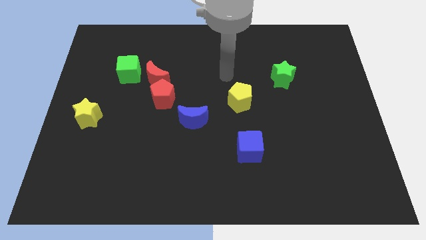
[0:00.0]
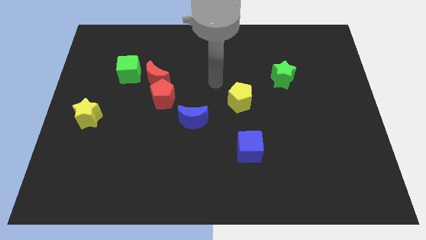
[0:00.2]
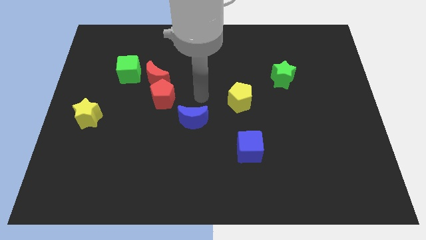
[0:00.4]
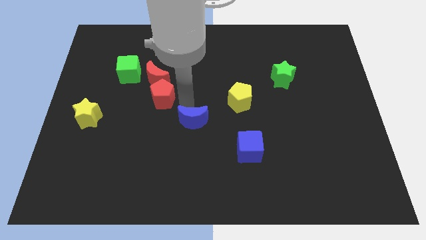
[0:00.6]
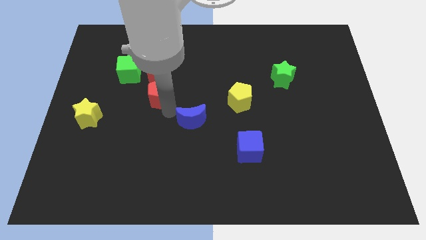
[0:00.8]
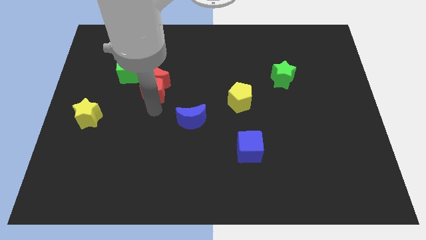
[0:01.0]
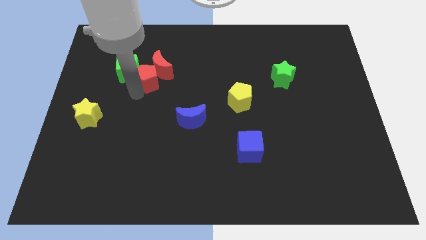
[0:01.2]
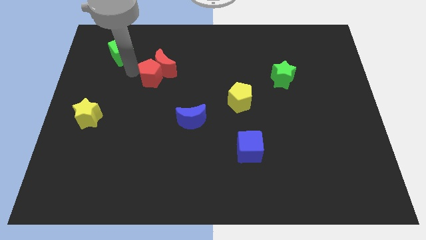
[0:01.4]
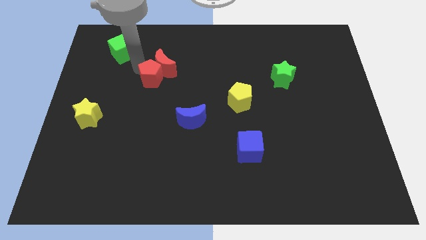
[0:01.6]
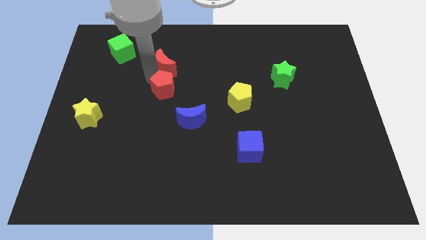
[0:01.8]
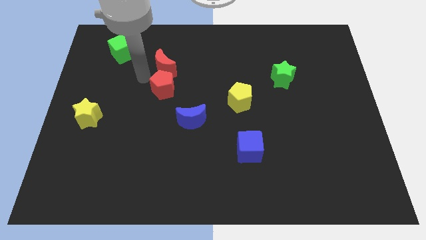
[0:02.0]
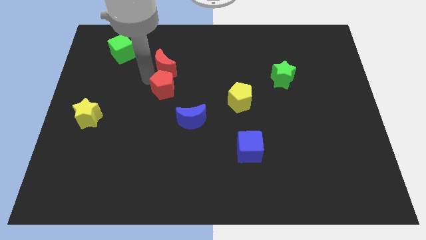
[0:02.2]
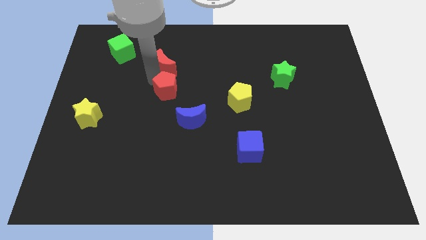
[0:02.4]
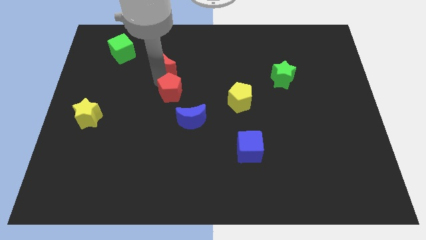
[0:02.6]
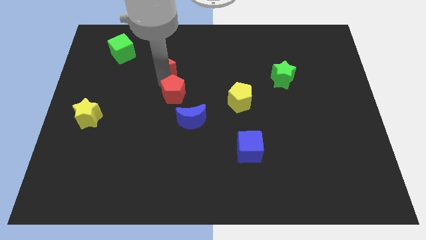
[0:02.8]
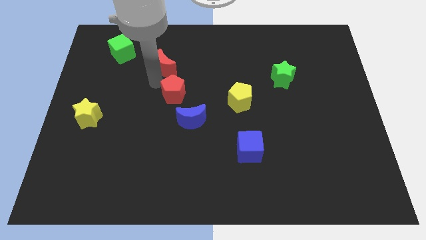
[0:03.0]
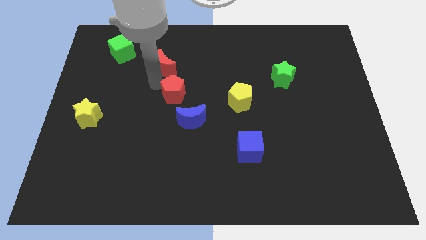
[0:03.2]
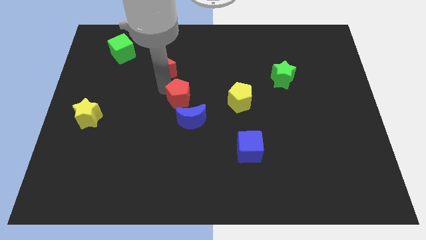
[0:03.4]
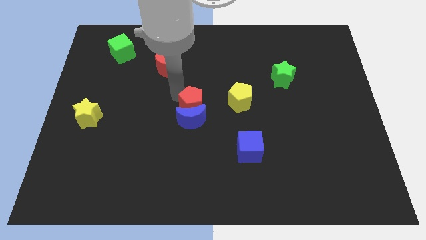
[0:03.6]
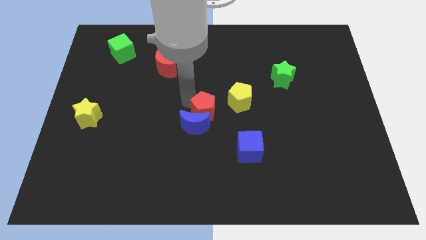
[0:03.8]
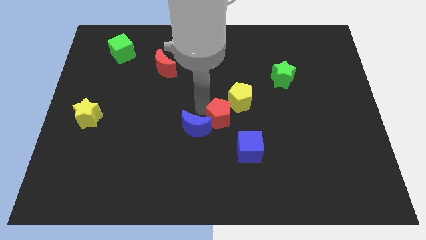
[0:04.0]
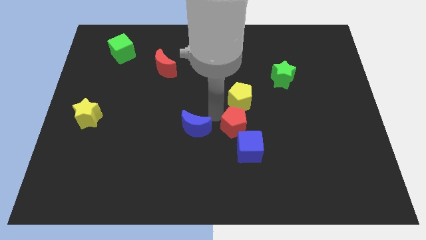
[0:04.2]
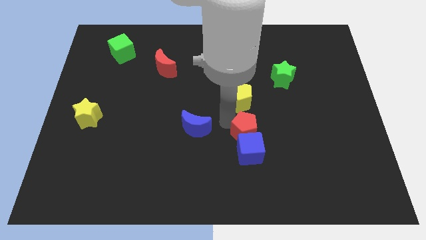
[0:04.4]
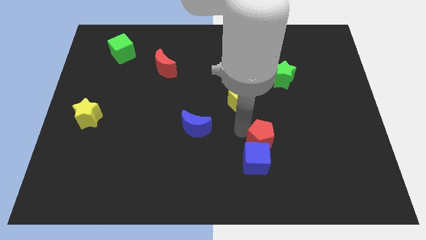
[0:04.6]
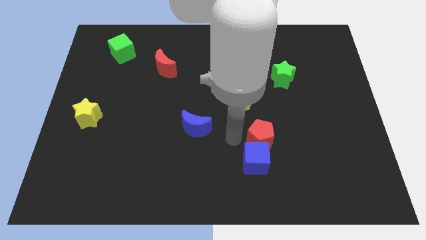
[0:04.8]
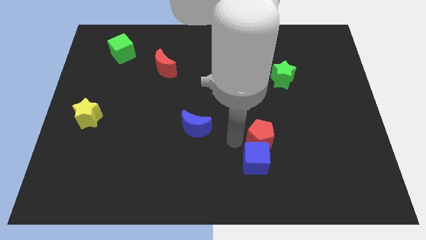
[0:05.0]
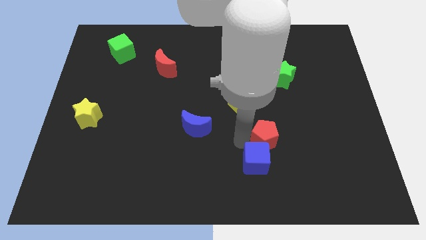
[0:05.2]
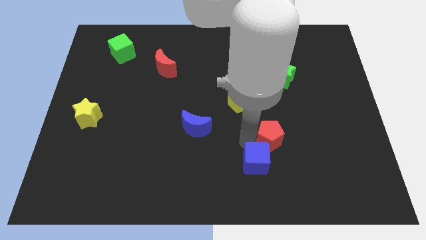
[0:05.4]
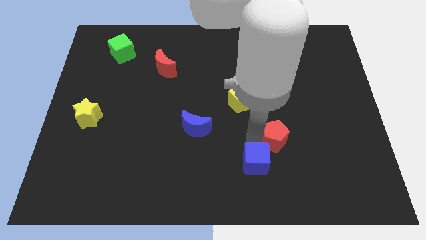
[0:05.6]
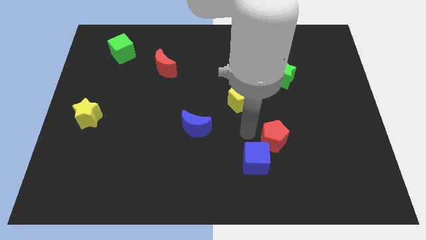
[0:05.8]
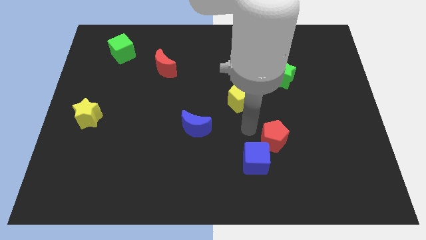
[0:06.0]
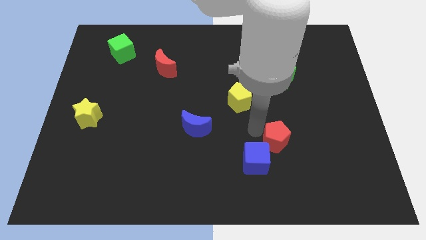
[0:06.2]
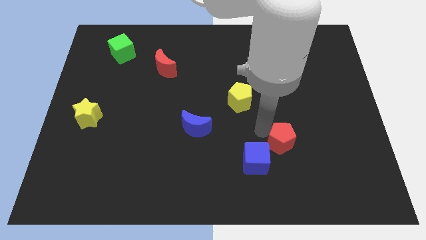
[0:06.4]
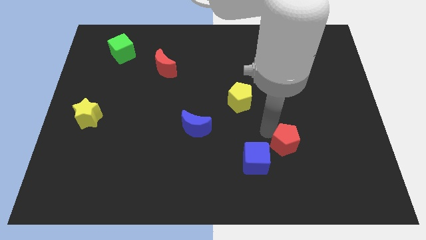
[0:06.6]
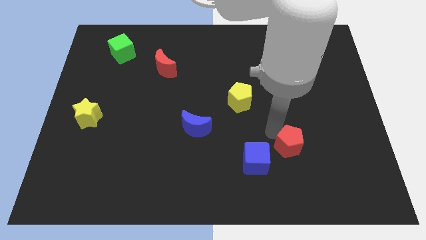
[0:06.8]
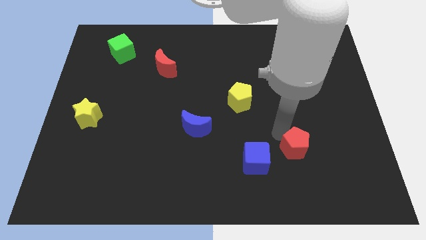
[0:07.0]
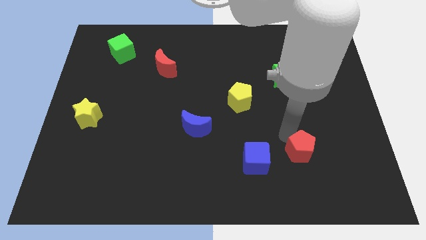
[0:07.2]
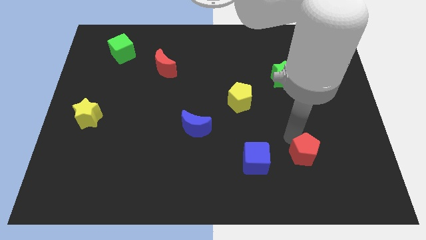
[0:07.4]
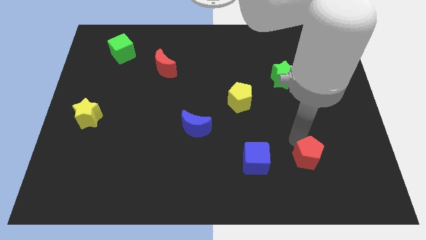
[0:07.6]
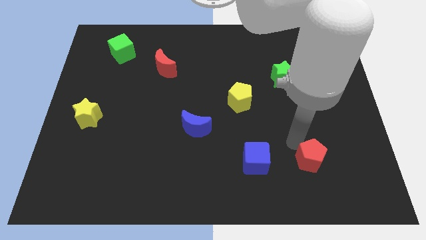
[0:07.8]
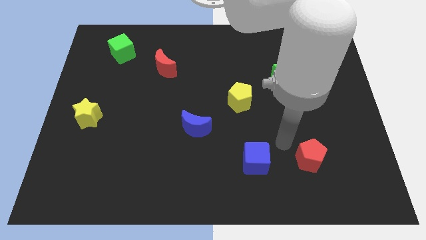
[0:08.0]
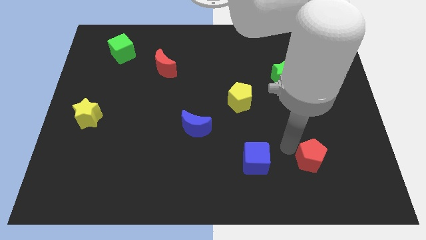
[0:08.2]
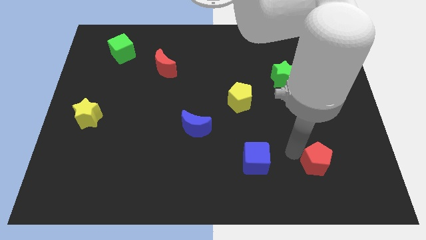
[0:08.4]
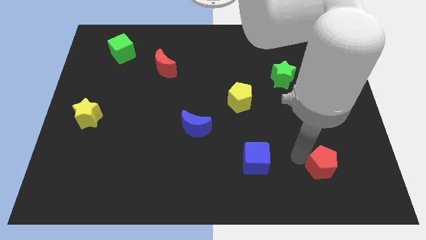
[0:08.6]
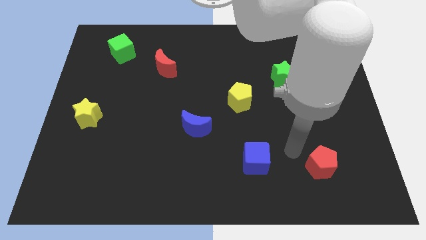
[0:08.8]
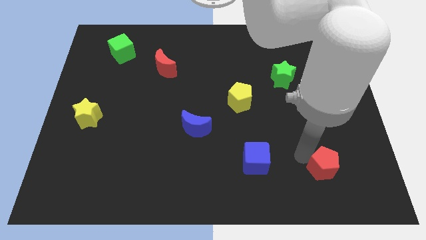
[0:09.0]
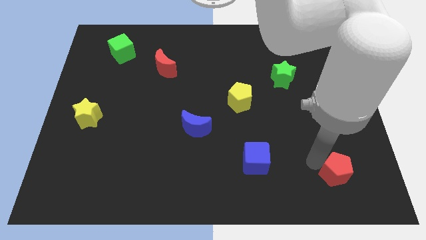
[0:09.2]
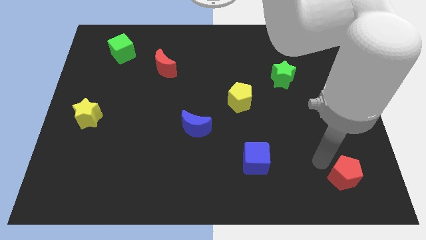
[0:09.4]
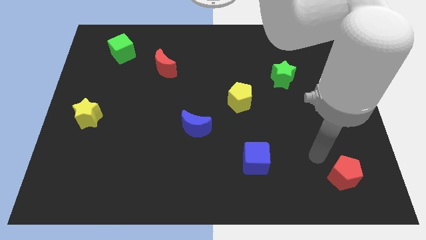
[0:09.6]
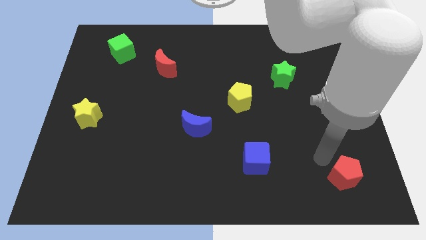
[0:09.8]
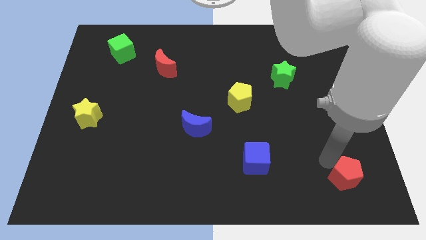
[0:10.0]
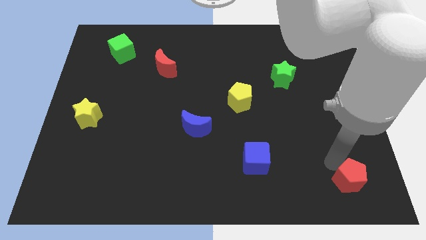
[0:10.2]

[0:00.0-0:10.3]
slide the red pentagon to the lower right corner

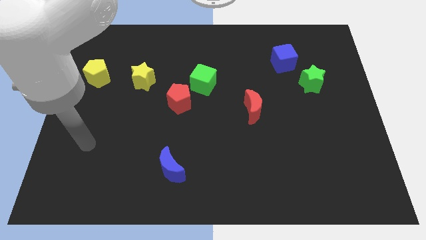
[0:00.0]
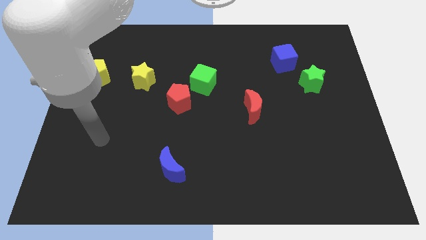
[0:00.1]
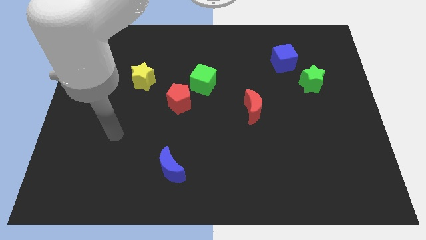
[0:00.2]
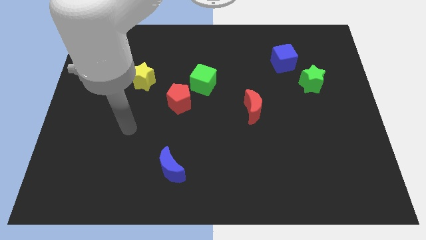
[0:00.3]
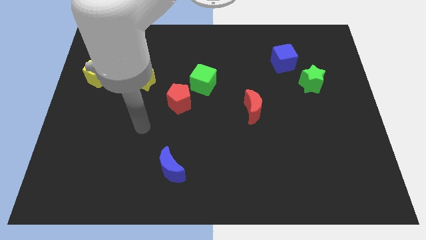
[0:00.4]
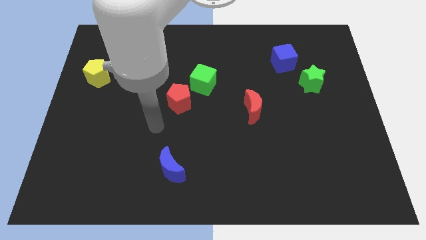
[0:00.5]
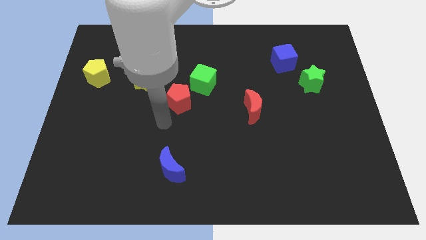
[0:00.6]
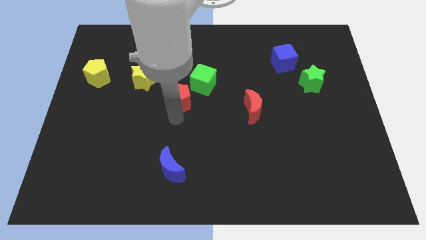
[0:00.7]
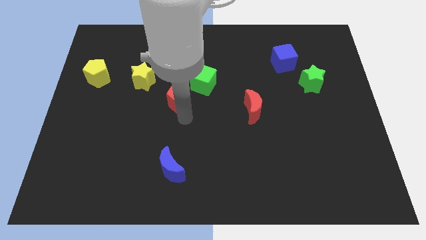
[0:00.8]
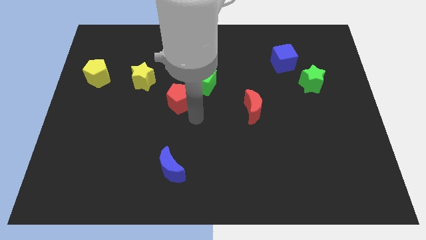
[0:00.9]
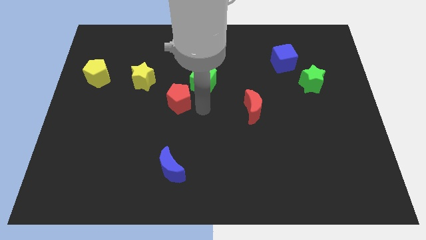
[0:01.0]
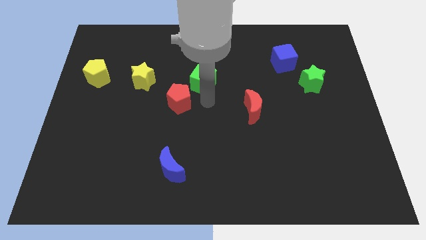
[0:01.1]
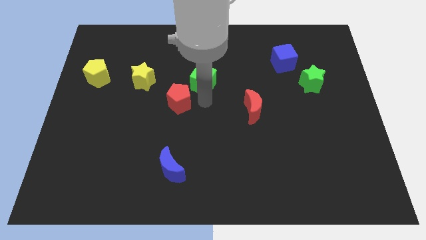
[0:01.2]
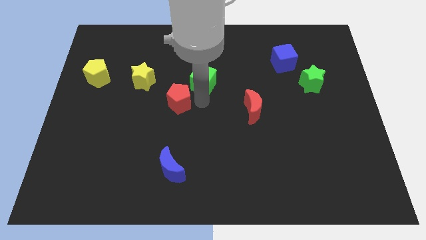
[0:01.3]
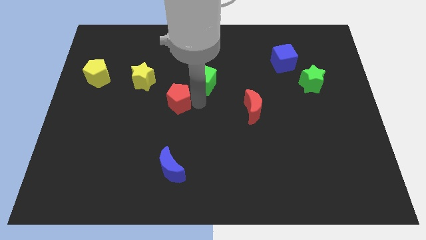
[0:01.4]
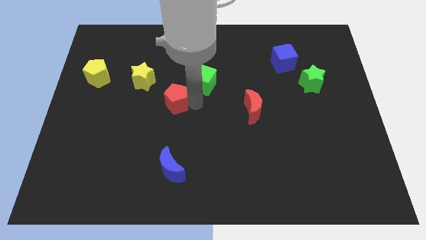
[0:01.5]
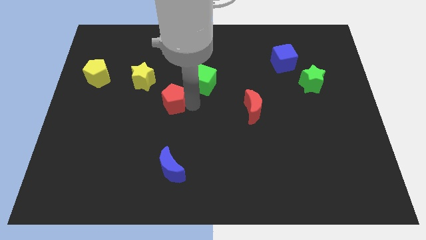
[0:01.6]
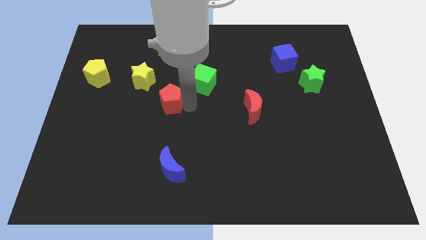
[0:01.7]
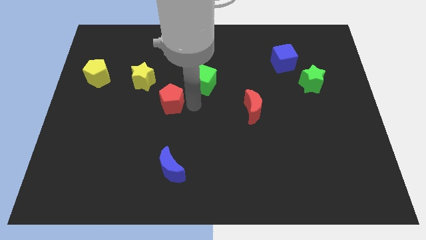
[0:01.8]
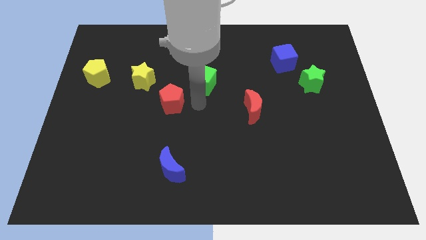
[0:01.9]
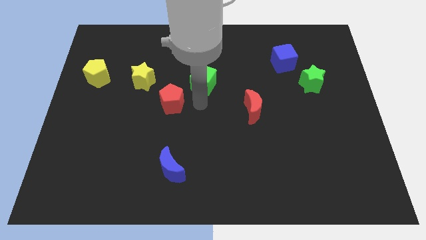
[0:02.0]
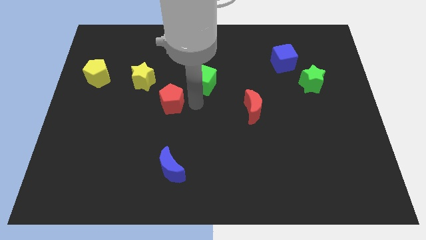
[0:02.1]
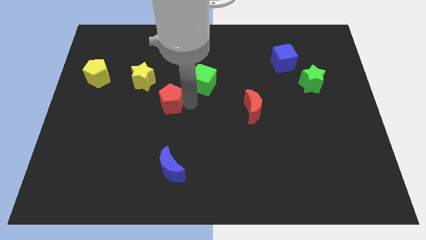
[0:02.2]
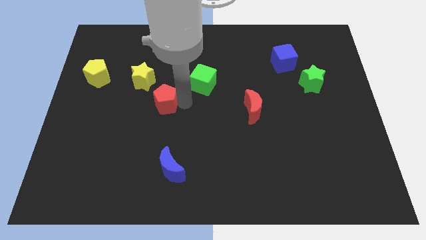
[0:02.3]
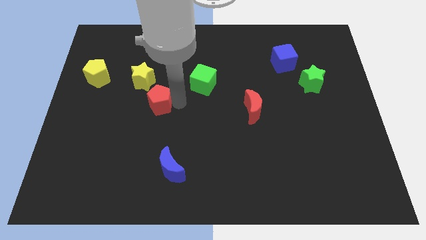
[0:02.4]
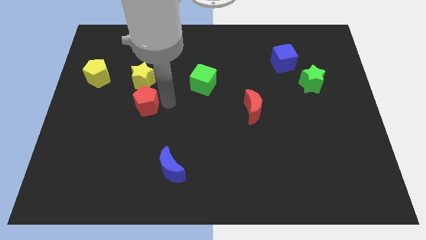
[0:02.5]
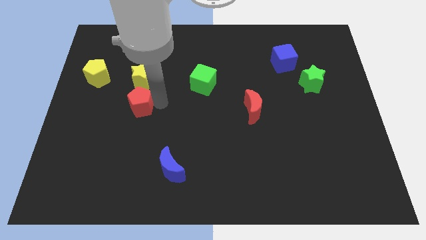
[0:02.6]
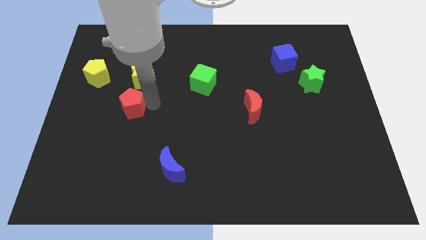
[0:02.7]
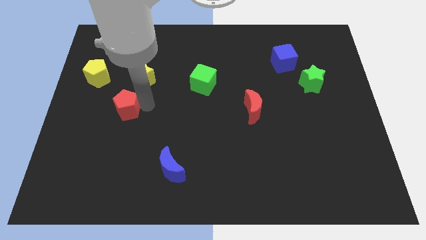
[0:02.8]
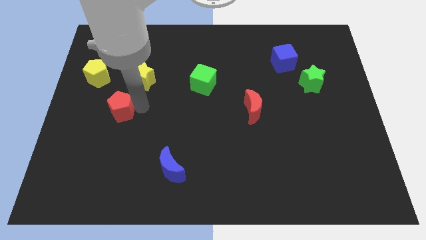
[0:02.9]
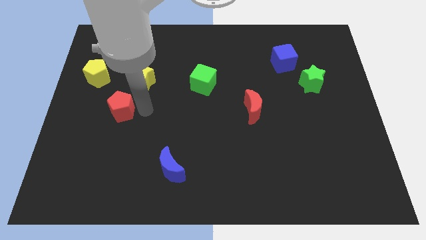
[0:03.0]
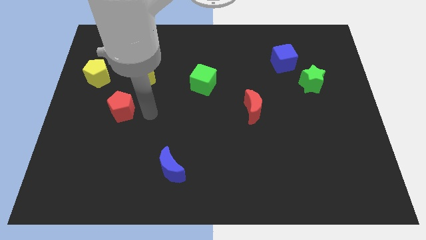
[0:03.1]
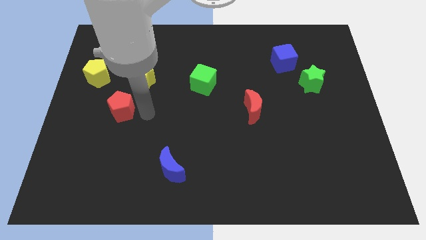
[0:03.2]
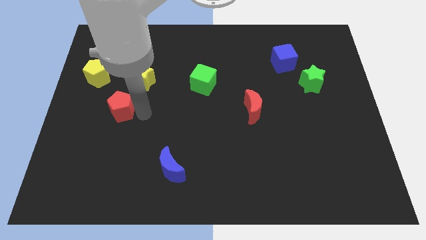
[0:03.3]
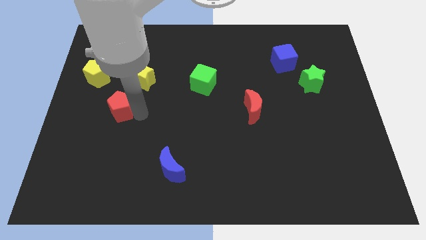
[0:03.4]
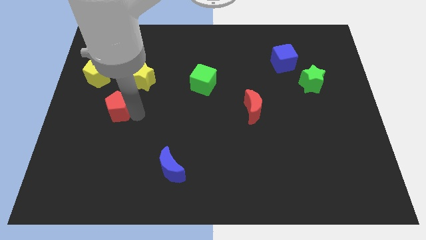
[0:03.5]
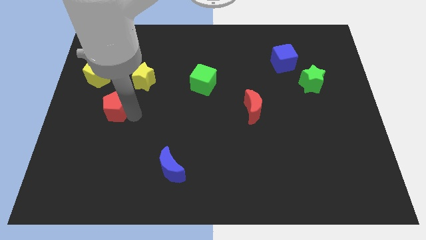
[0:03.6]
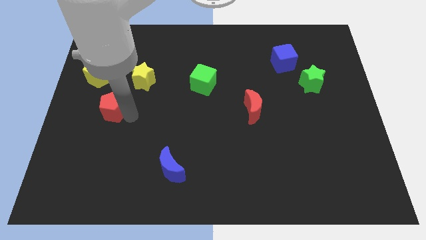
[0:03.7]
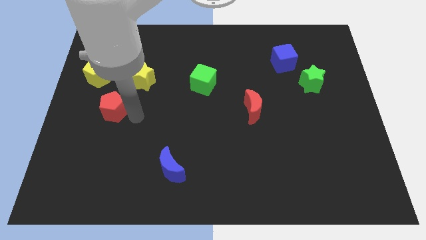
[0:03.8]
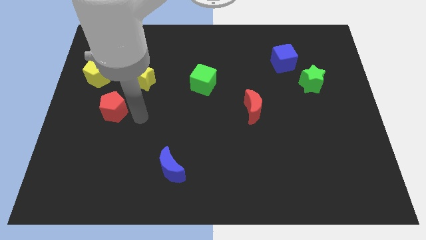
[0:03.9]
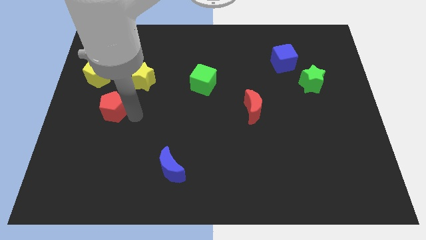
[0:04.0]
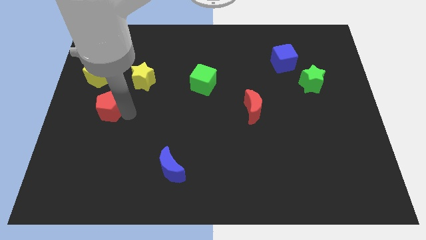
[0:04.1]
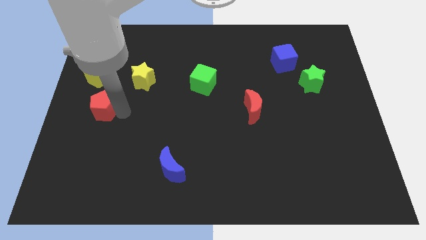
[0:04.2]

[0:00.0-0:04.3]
move the red pentagon to the left side
